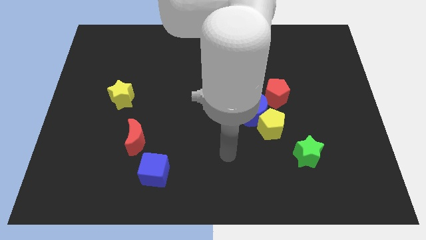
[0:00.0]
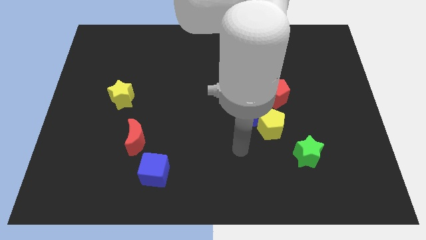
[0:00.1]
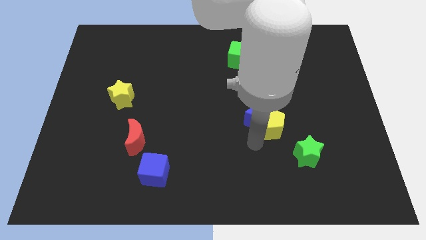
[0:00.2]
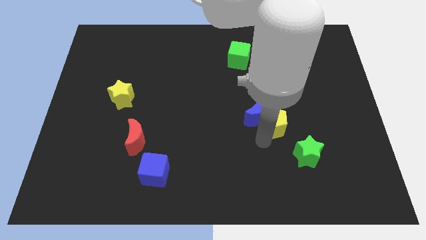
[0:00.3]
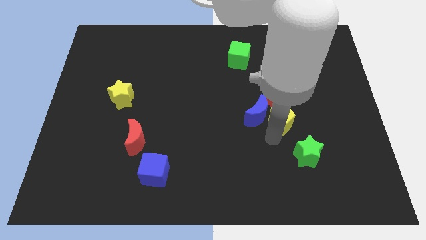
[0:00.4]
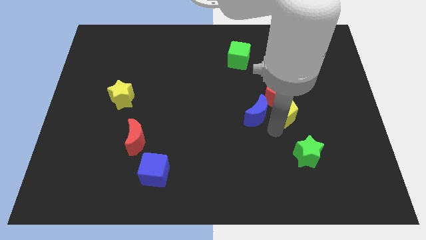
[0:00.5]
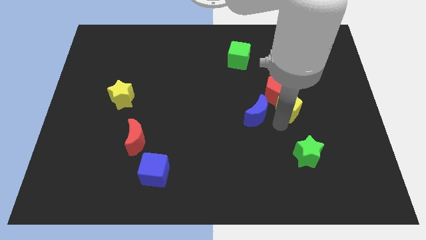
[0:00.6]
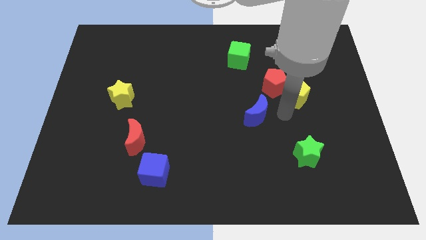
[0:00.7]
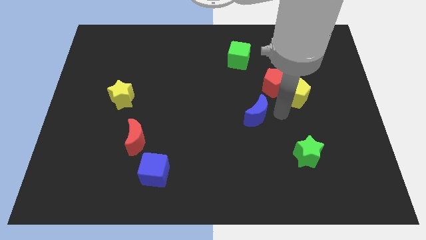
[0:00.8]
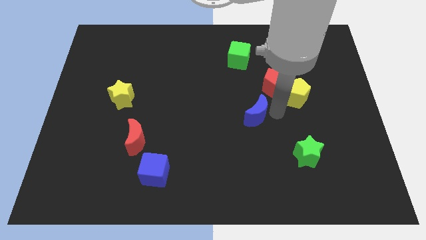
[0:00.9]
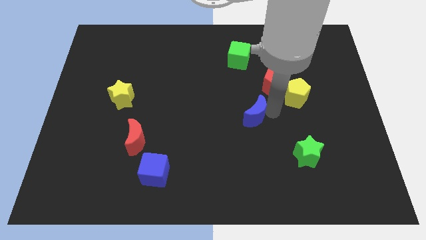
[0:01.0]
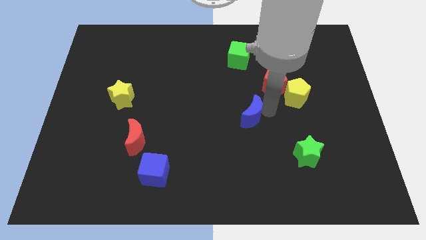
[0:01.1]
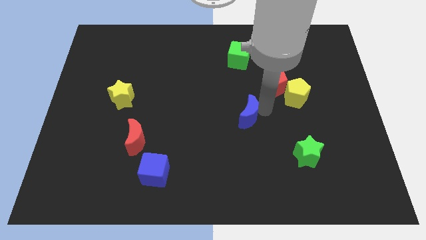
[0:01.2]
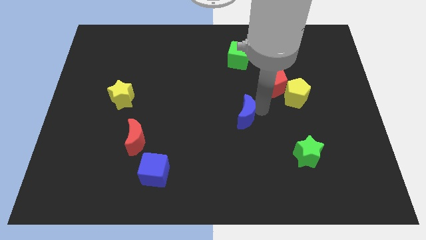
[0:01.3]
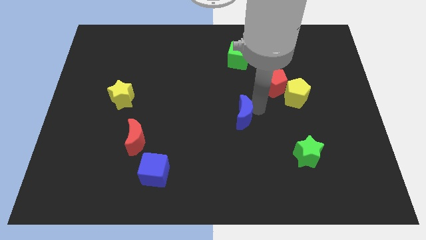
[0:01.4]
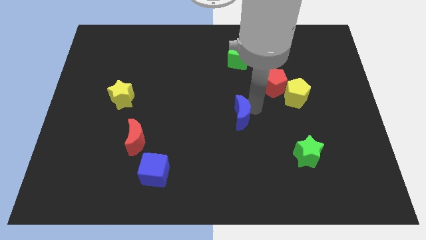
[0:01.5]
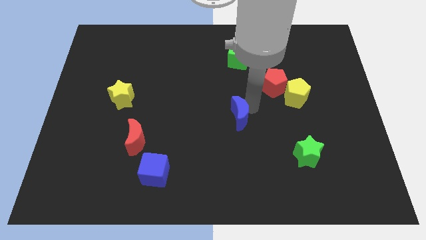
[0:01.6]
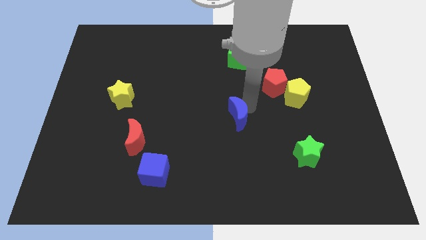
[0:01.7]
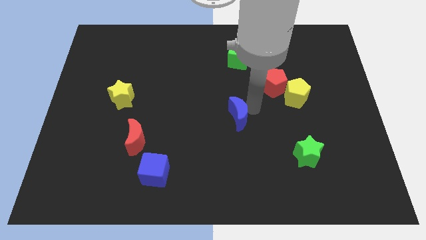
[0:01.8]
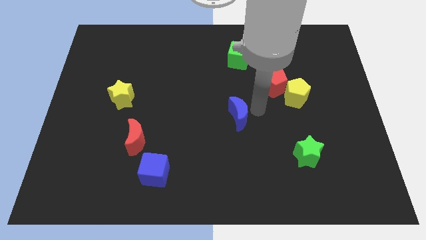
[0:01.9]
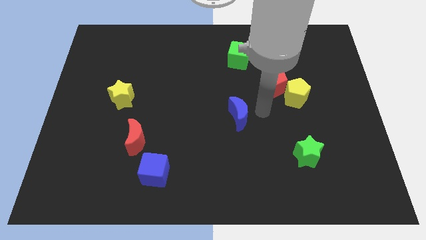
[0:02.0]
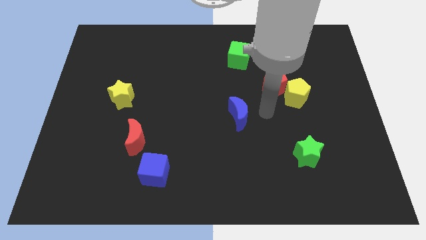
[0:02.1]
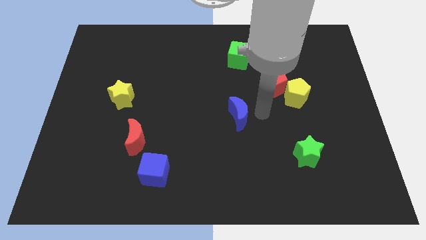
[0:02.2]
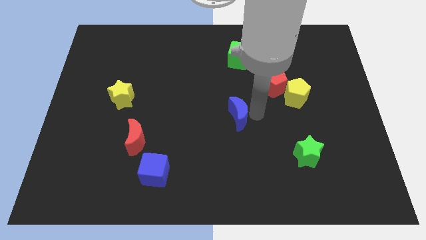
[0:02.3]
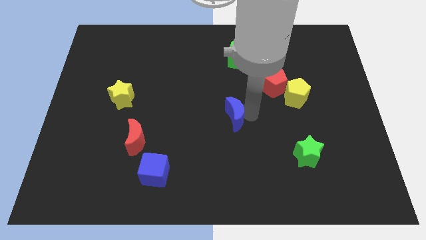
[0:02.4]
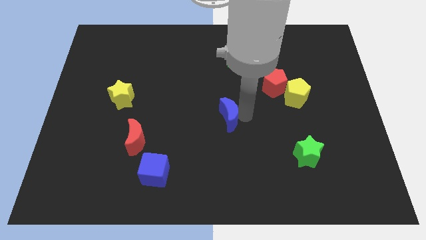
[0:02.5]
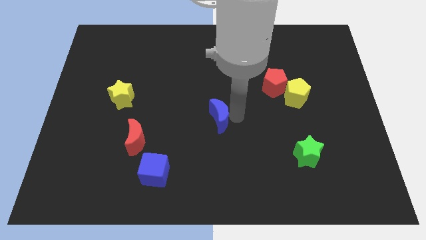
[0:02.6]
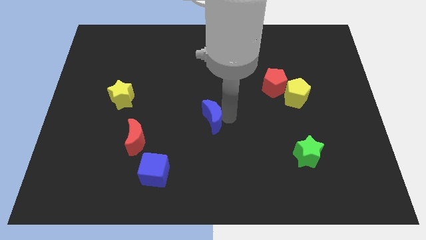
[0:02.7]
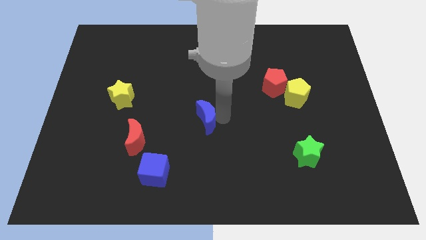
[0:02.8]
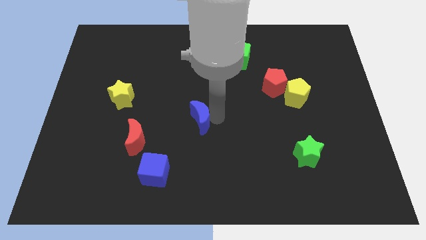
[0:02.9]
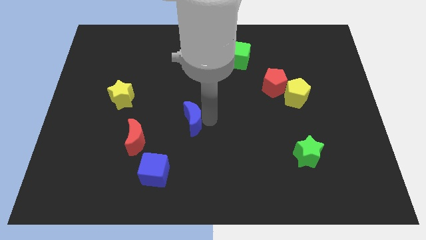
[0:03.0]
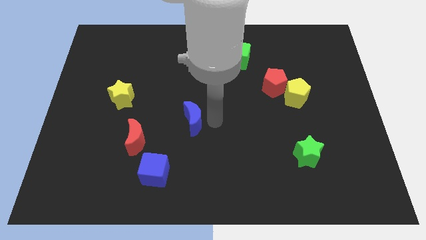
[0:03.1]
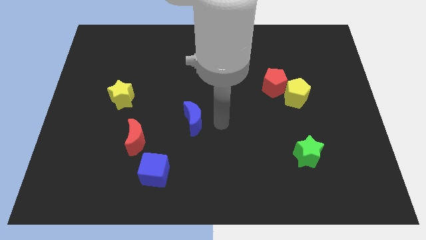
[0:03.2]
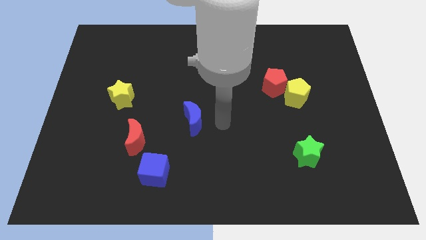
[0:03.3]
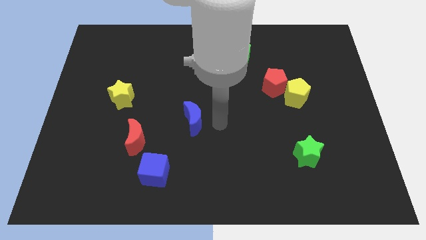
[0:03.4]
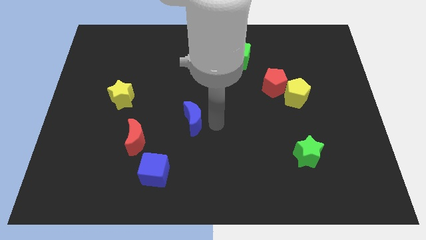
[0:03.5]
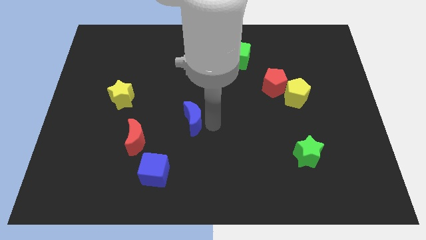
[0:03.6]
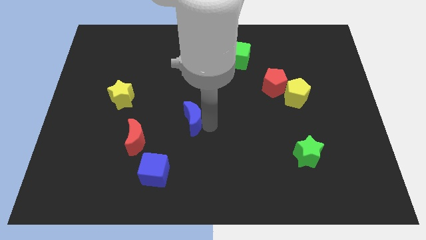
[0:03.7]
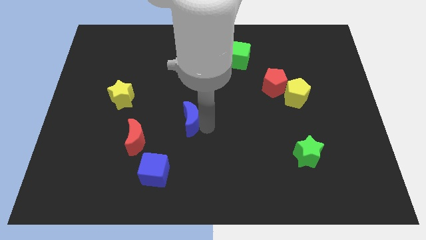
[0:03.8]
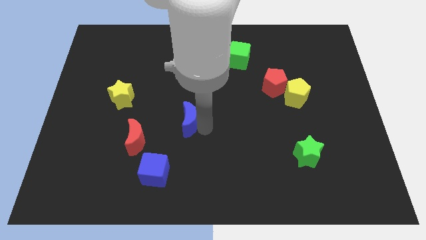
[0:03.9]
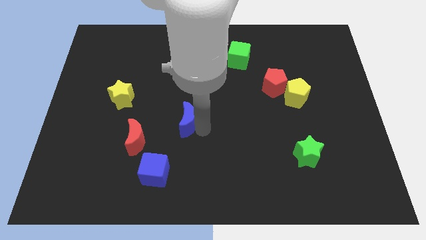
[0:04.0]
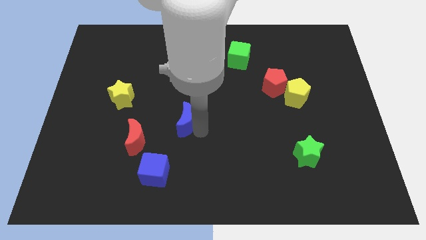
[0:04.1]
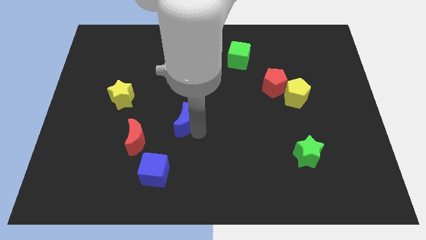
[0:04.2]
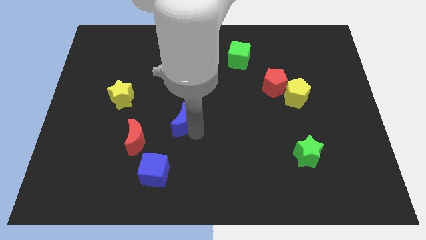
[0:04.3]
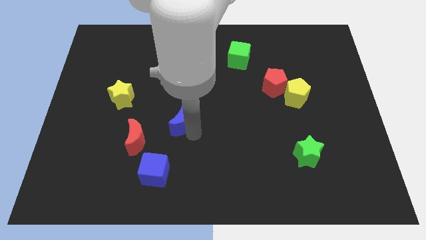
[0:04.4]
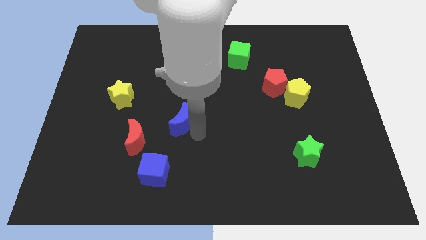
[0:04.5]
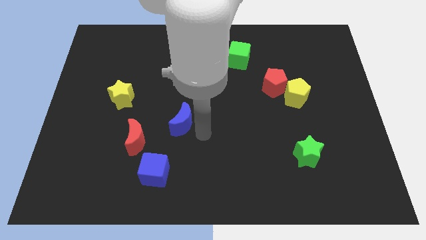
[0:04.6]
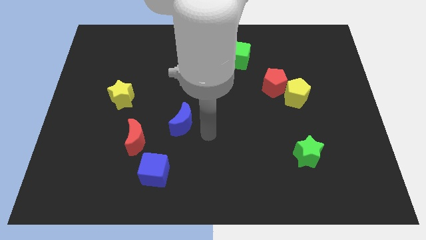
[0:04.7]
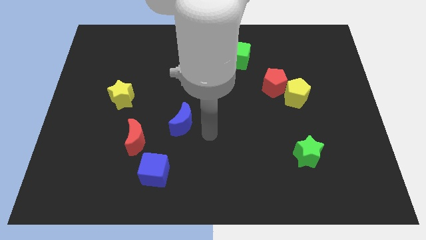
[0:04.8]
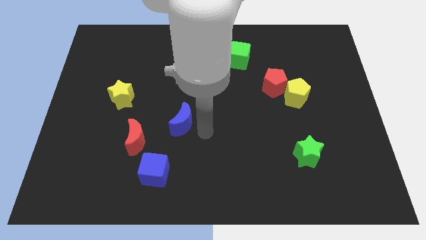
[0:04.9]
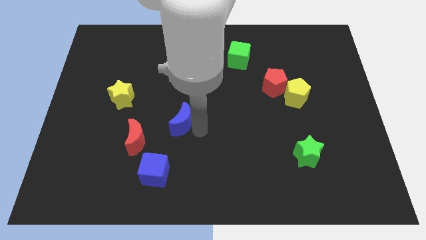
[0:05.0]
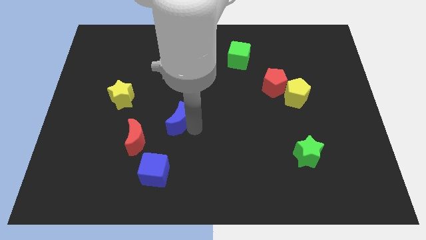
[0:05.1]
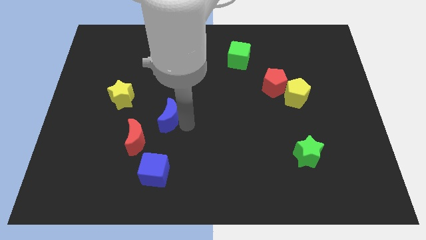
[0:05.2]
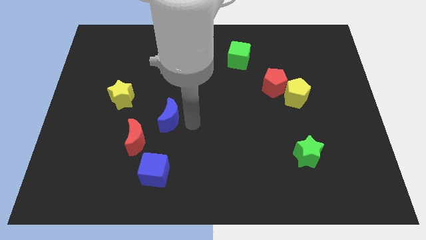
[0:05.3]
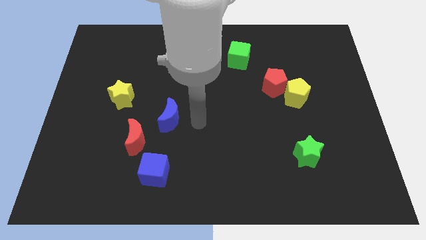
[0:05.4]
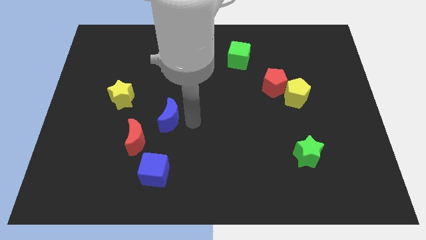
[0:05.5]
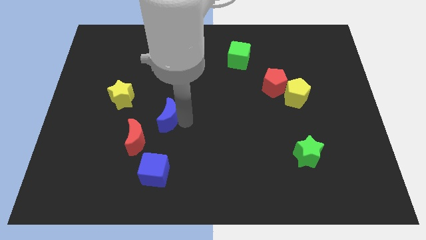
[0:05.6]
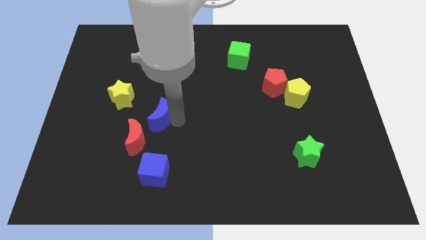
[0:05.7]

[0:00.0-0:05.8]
move the blue moon diagonally down and to the right of the yellow star

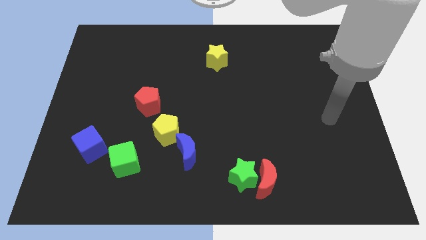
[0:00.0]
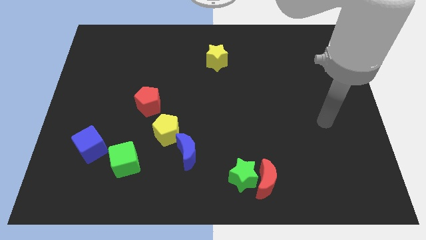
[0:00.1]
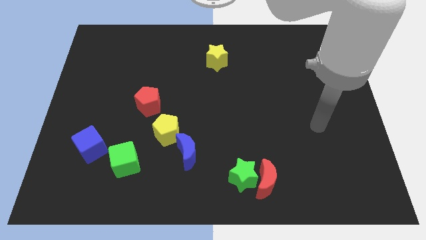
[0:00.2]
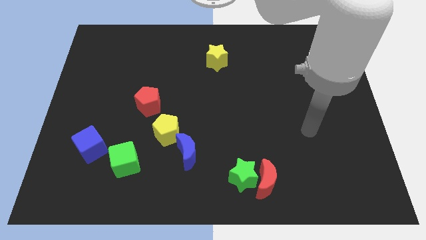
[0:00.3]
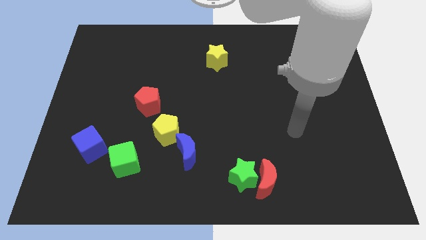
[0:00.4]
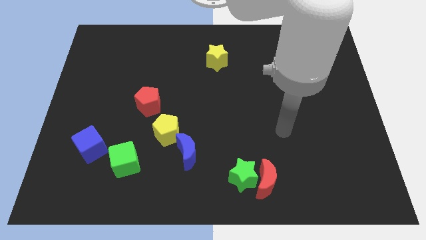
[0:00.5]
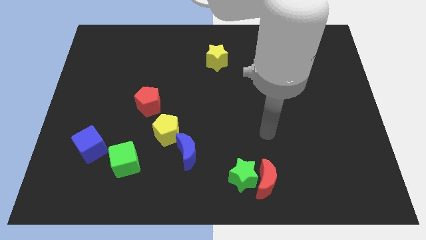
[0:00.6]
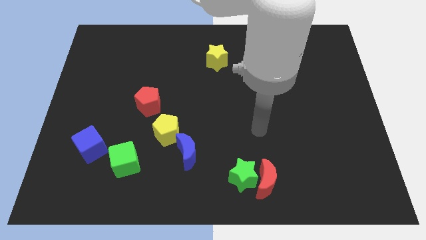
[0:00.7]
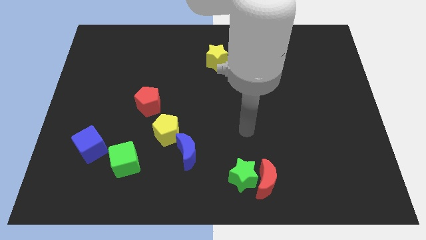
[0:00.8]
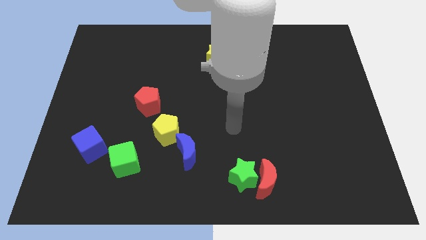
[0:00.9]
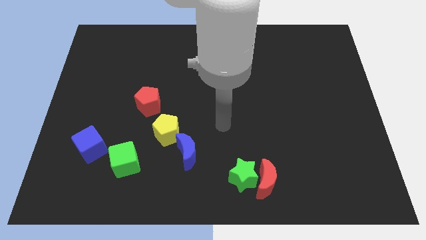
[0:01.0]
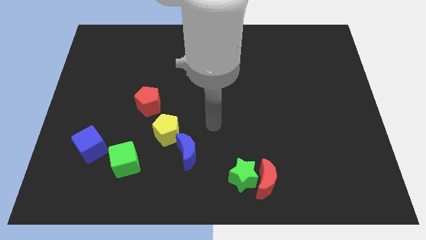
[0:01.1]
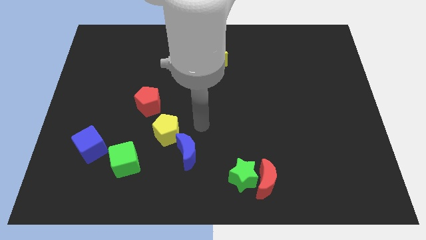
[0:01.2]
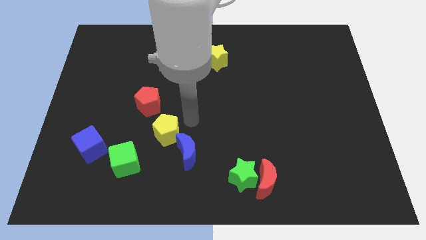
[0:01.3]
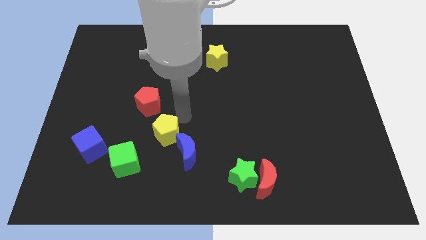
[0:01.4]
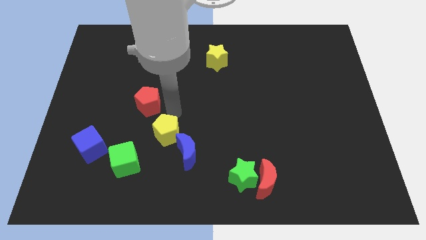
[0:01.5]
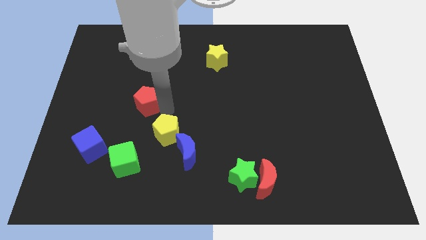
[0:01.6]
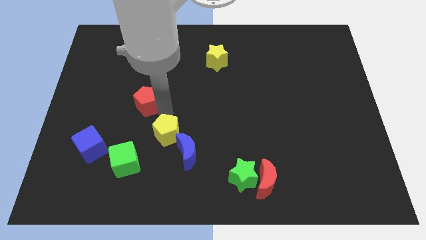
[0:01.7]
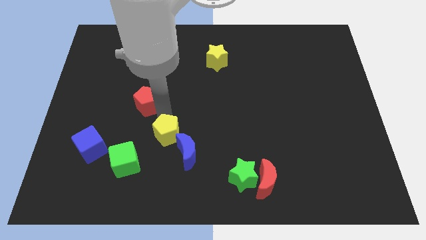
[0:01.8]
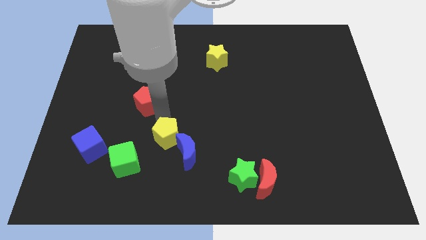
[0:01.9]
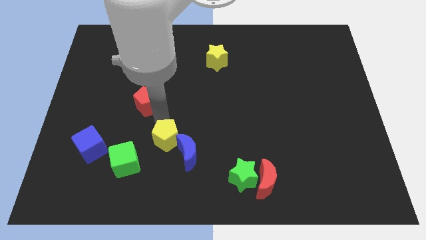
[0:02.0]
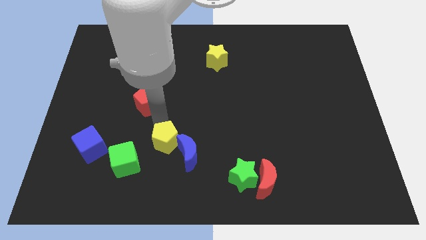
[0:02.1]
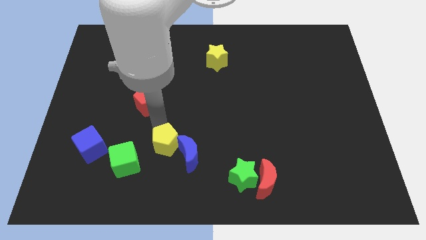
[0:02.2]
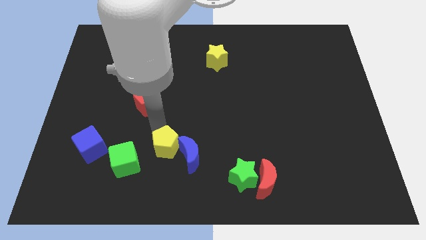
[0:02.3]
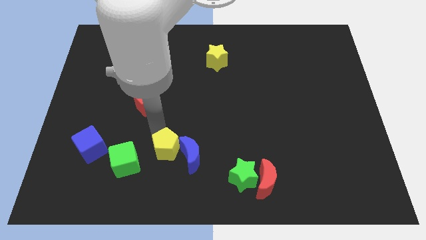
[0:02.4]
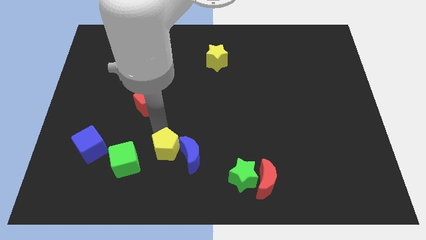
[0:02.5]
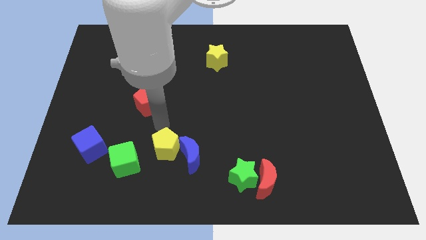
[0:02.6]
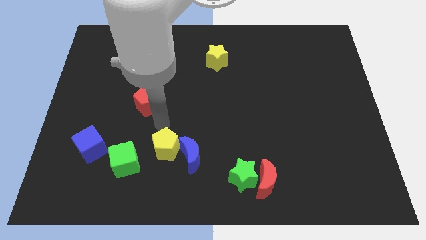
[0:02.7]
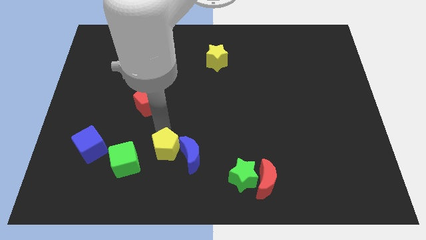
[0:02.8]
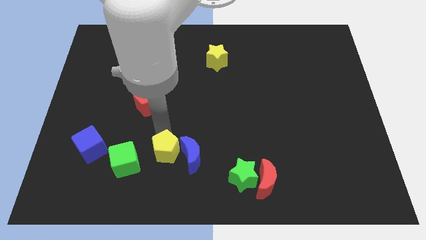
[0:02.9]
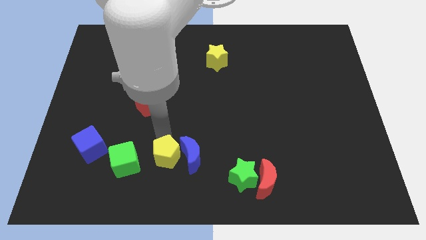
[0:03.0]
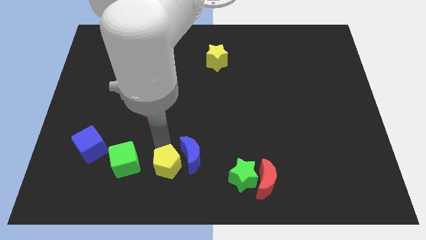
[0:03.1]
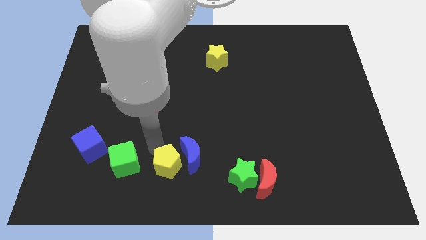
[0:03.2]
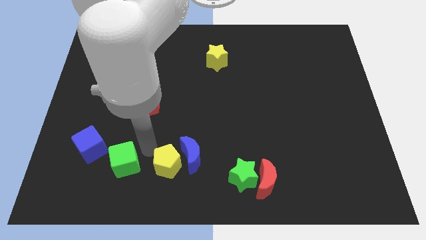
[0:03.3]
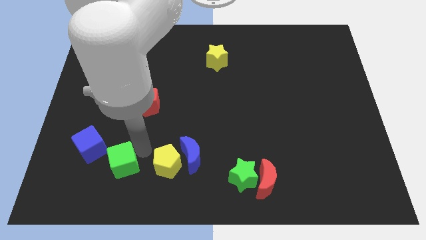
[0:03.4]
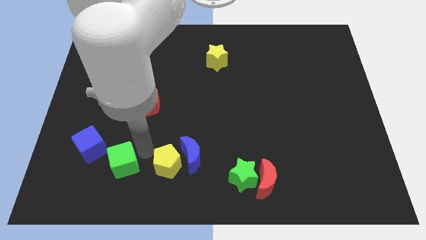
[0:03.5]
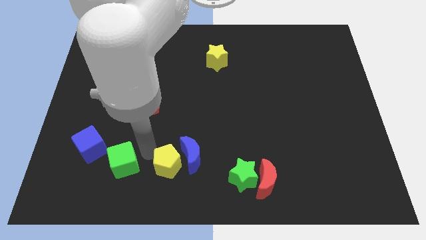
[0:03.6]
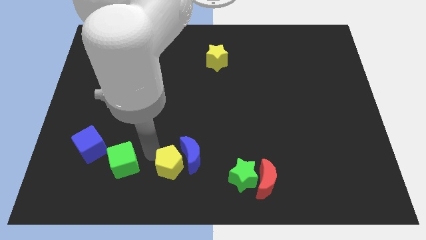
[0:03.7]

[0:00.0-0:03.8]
move the yellow pentagon left of the green star
